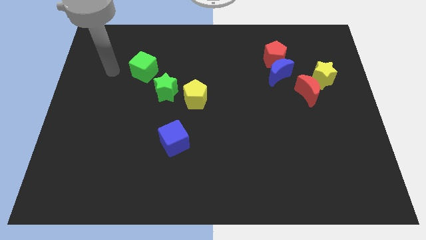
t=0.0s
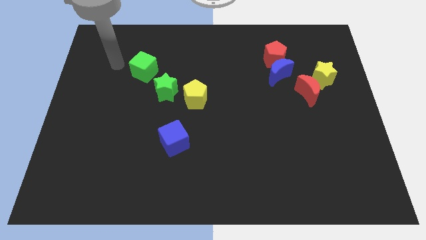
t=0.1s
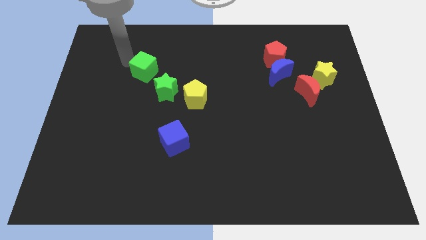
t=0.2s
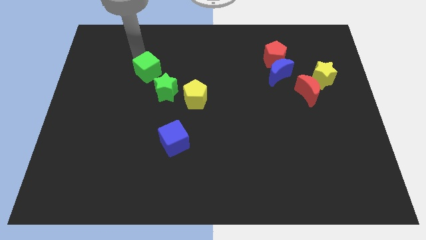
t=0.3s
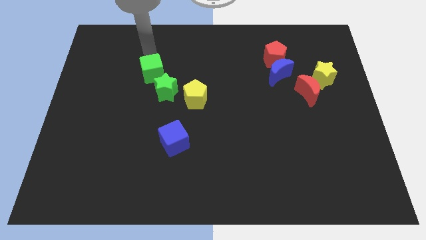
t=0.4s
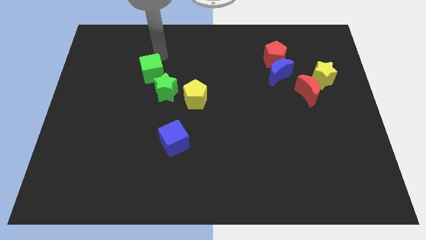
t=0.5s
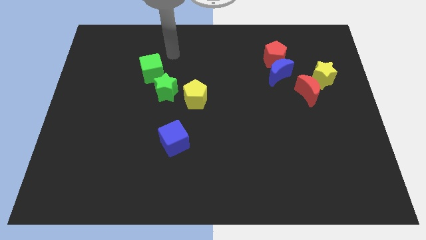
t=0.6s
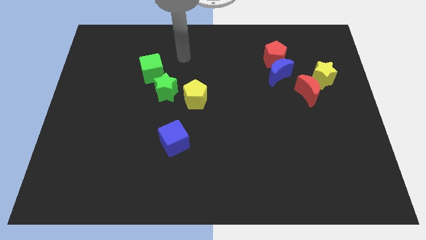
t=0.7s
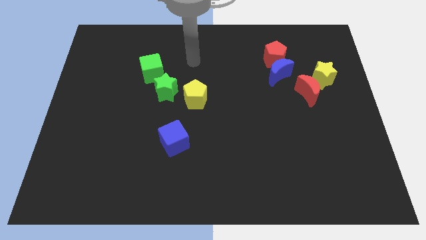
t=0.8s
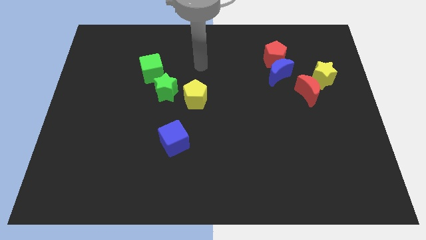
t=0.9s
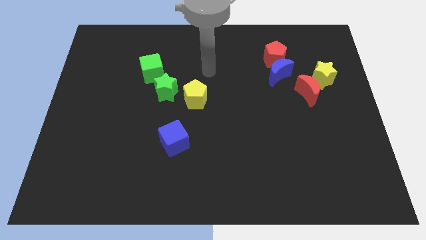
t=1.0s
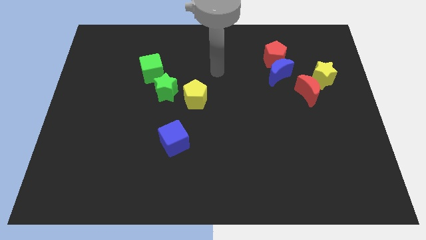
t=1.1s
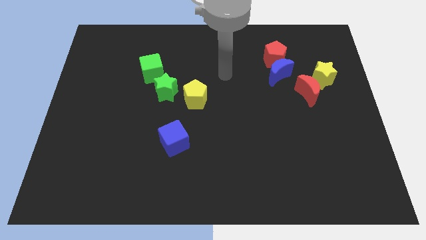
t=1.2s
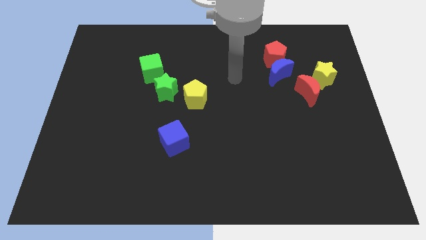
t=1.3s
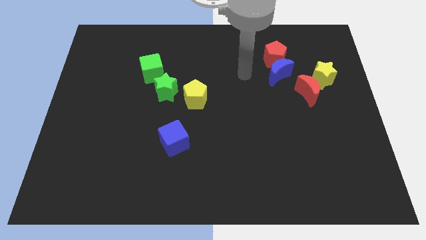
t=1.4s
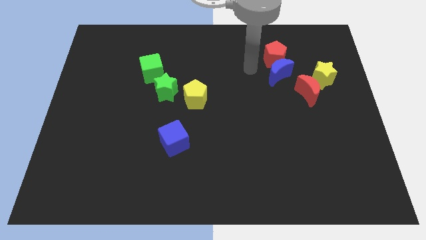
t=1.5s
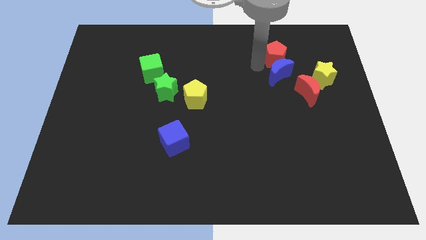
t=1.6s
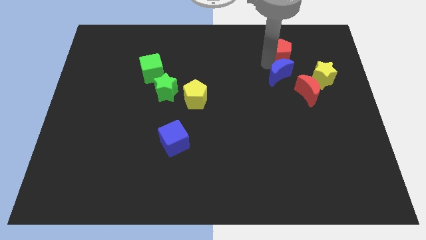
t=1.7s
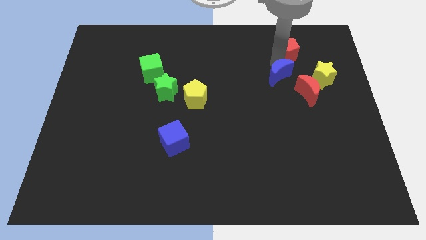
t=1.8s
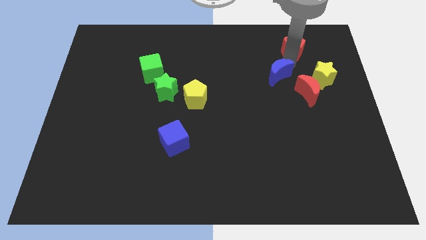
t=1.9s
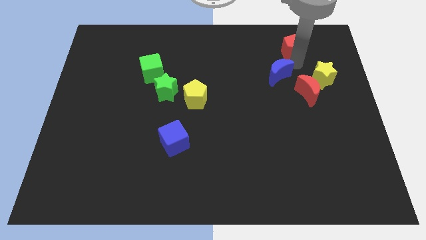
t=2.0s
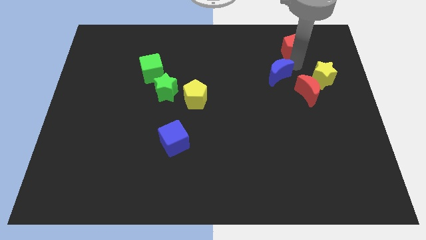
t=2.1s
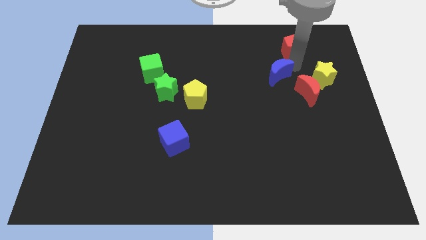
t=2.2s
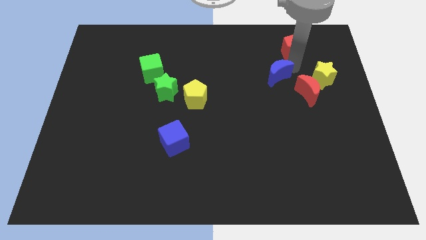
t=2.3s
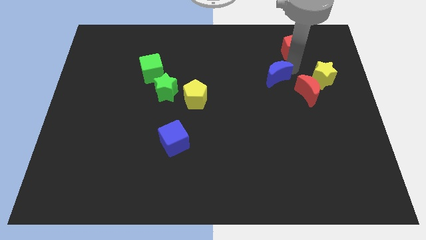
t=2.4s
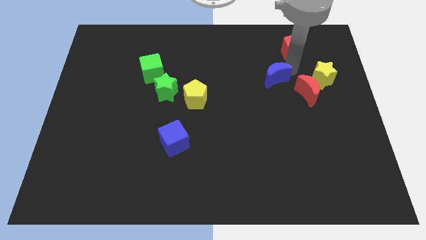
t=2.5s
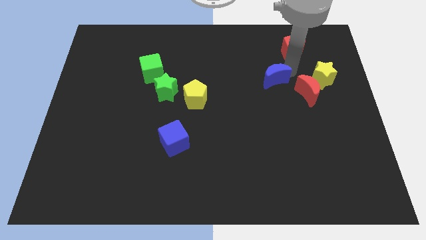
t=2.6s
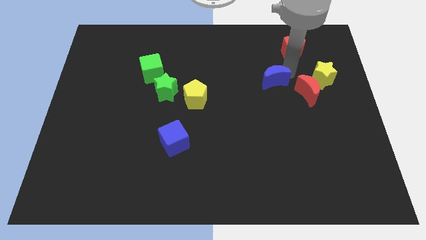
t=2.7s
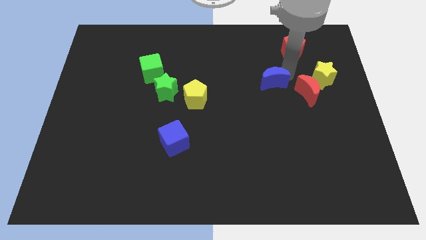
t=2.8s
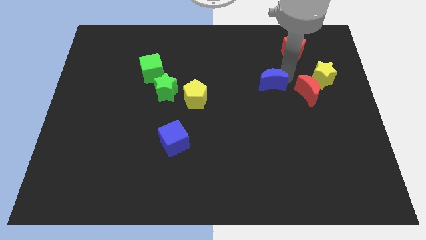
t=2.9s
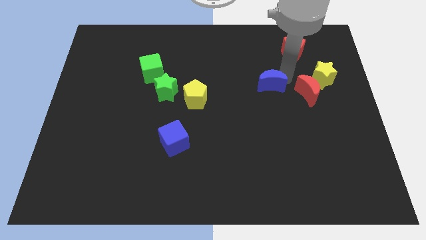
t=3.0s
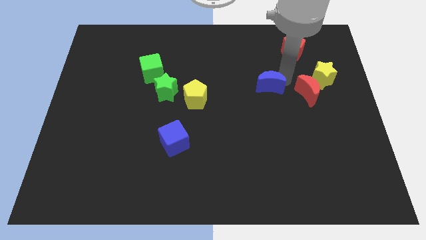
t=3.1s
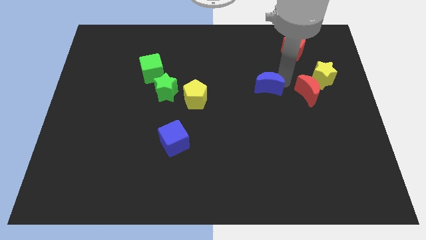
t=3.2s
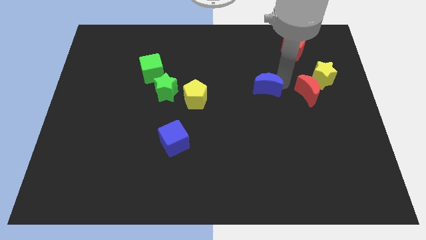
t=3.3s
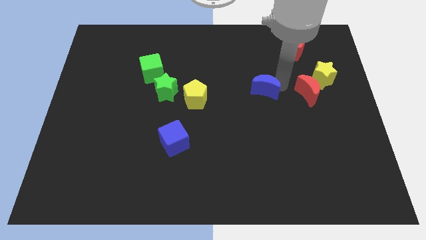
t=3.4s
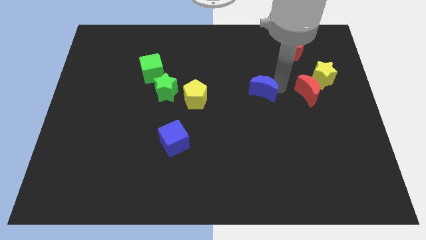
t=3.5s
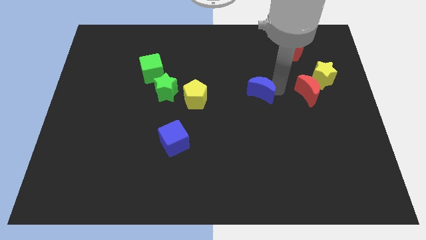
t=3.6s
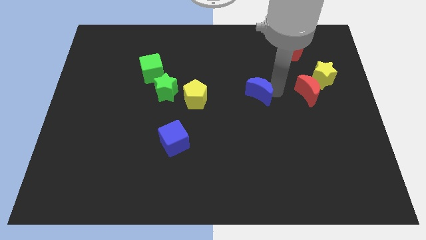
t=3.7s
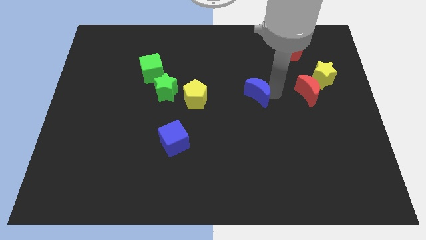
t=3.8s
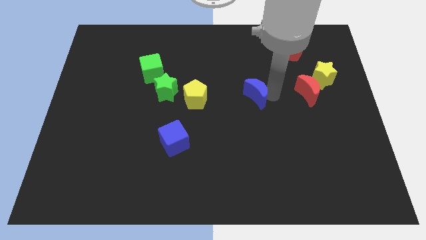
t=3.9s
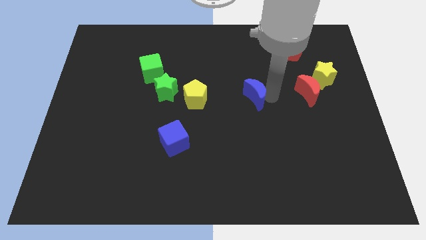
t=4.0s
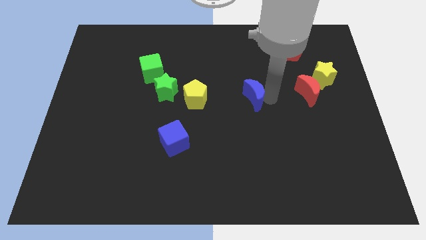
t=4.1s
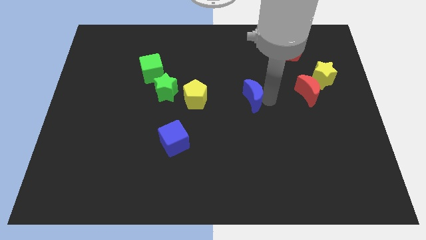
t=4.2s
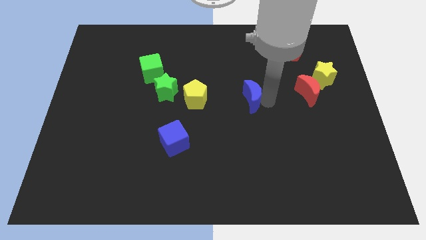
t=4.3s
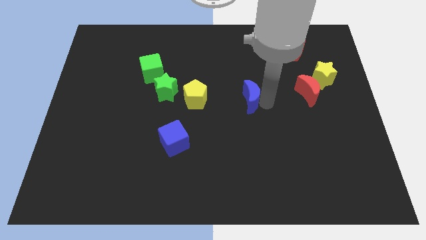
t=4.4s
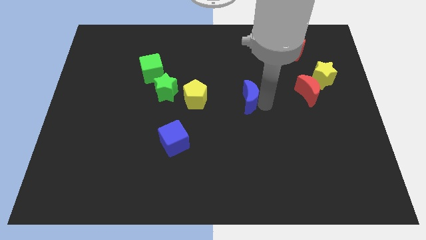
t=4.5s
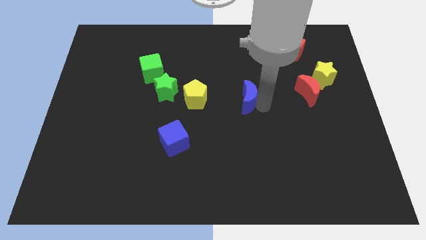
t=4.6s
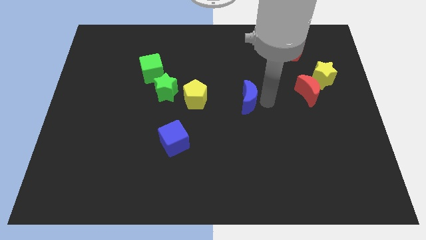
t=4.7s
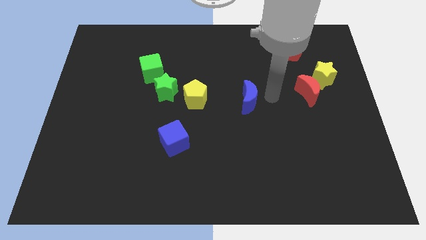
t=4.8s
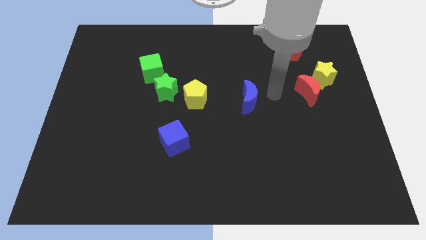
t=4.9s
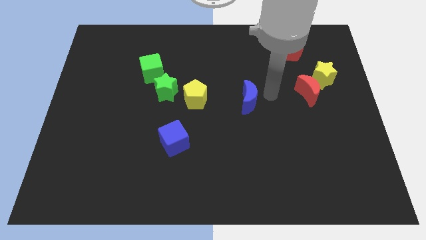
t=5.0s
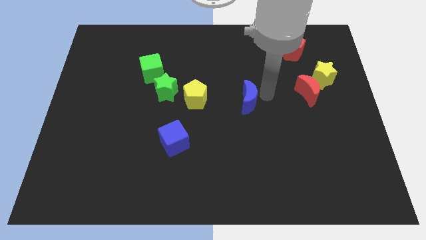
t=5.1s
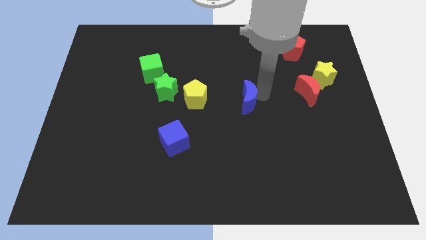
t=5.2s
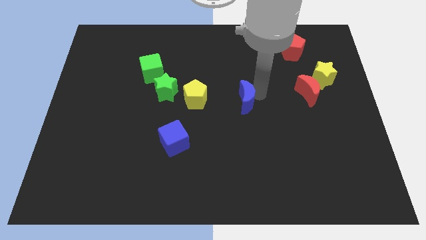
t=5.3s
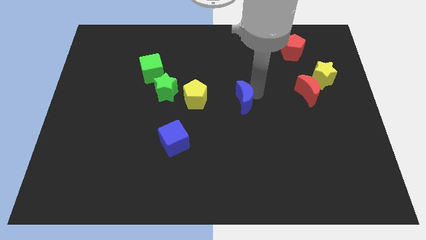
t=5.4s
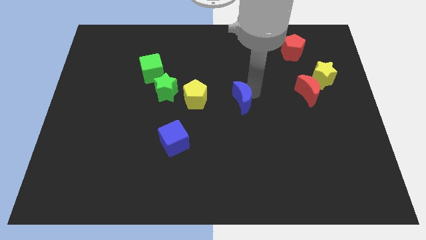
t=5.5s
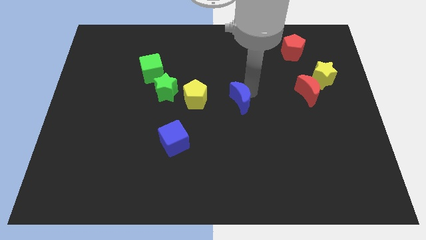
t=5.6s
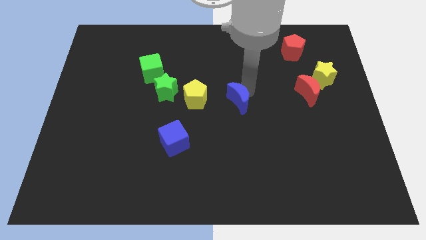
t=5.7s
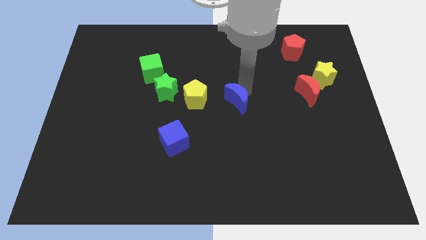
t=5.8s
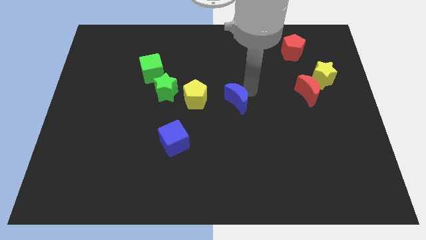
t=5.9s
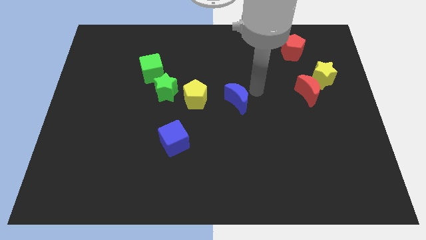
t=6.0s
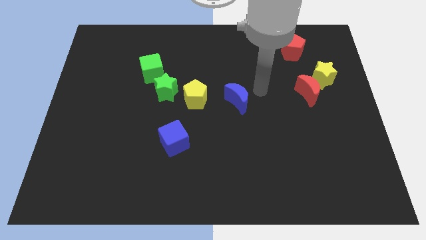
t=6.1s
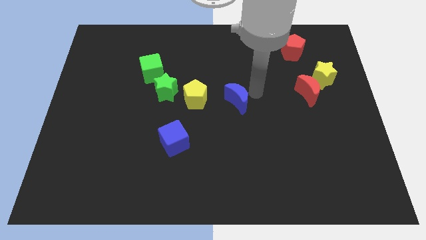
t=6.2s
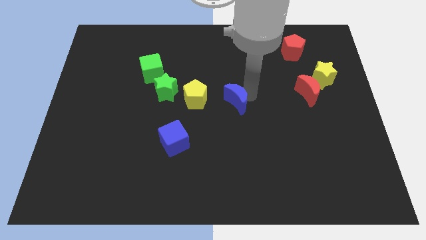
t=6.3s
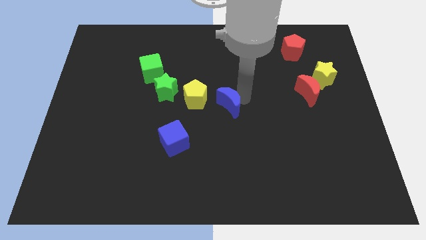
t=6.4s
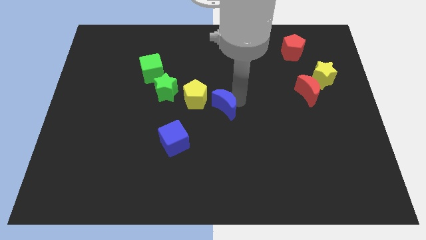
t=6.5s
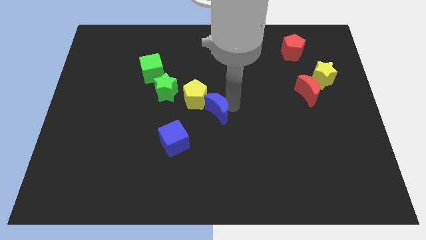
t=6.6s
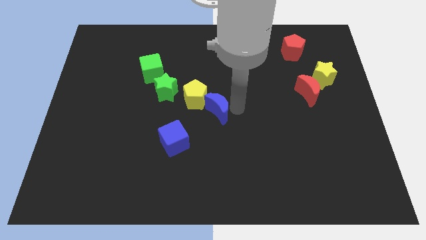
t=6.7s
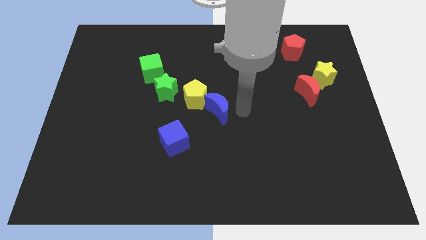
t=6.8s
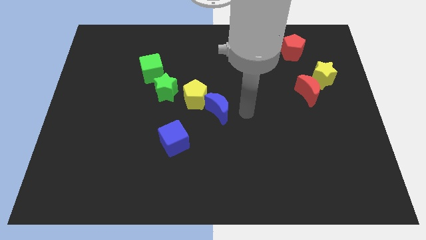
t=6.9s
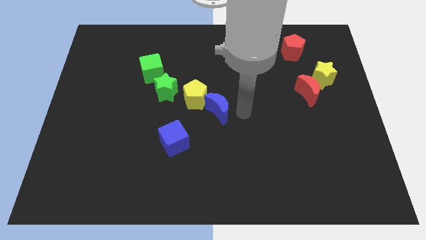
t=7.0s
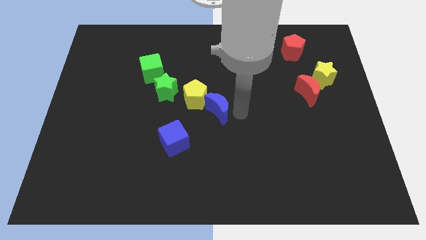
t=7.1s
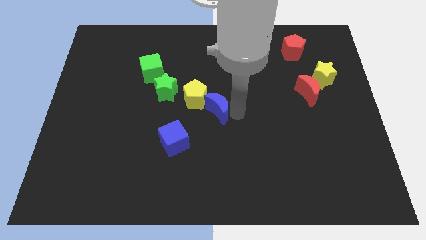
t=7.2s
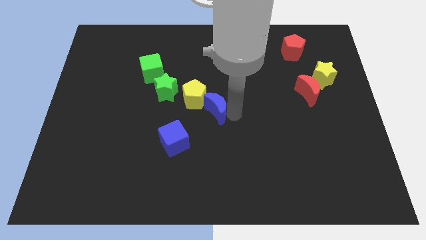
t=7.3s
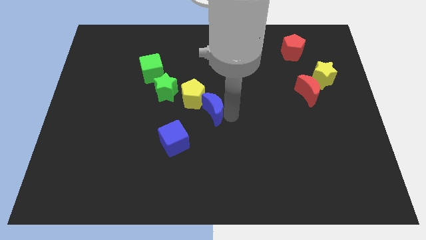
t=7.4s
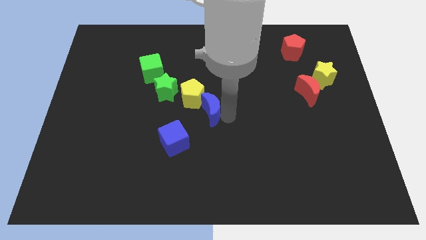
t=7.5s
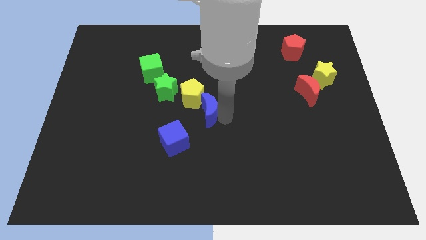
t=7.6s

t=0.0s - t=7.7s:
slide the blue moon to the bottom right side of the green star
